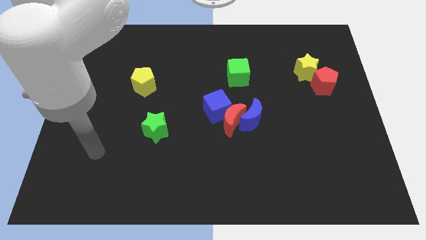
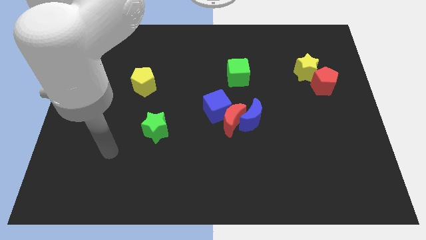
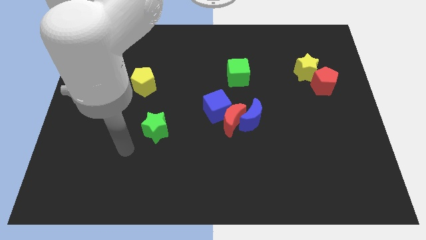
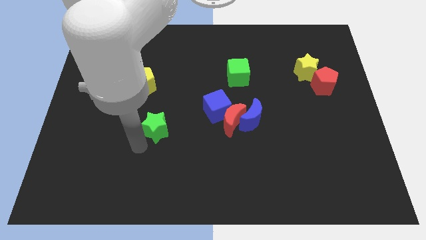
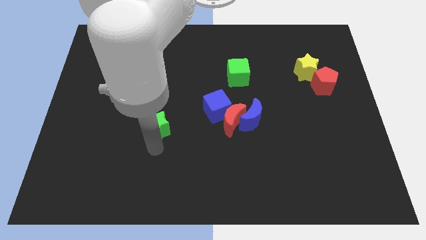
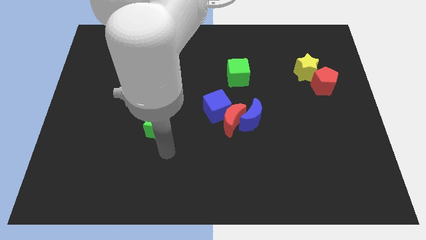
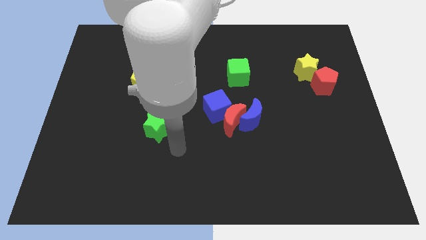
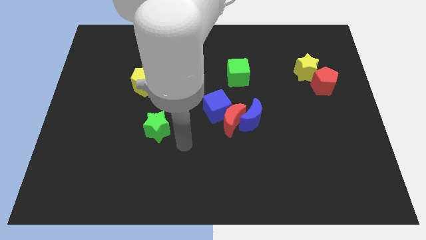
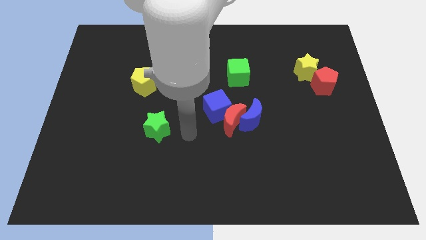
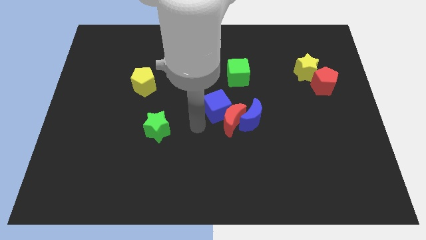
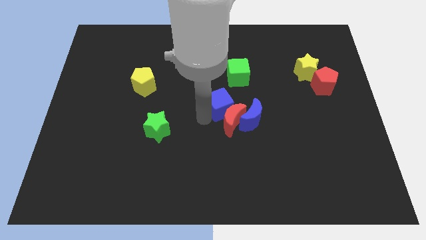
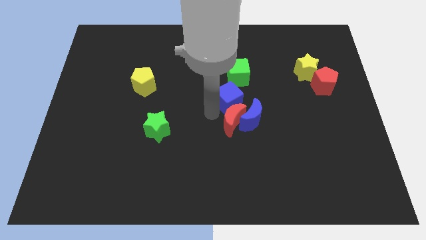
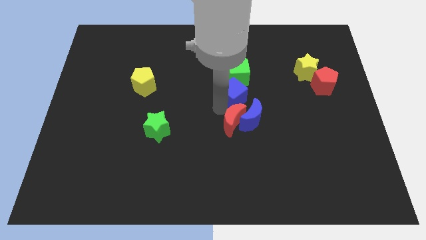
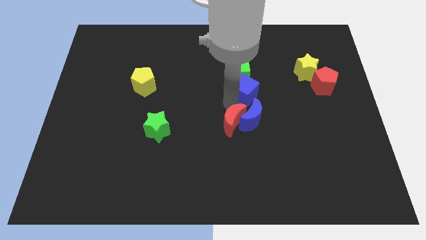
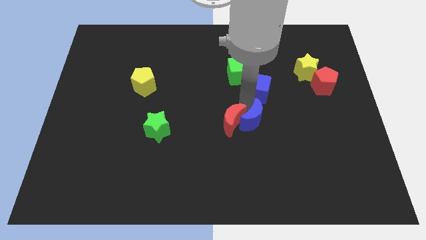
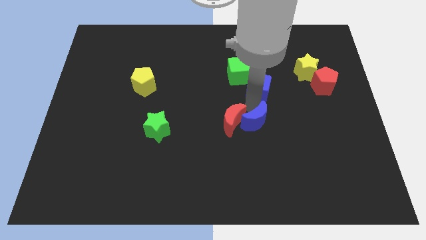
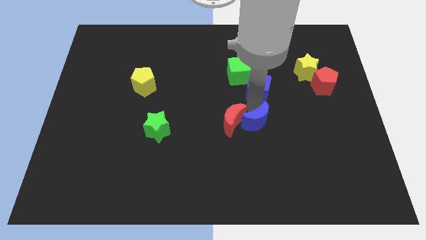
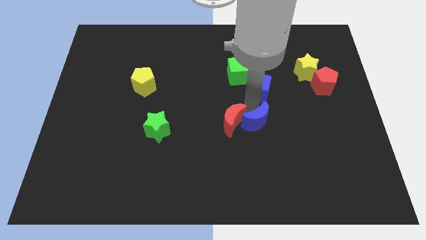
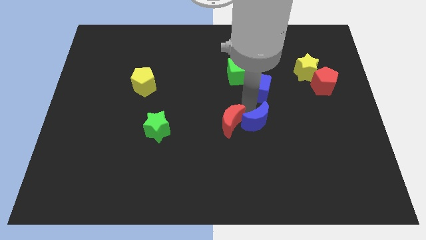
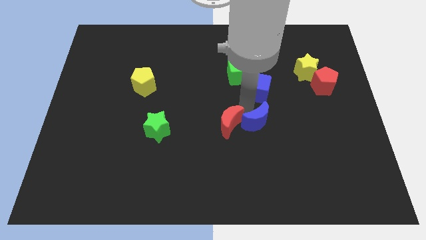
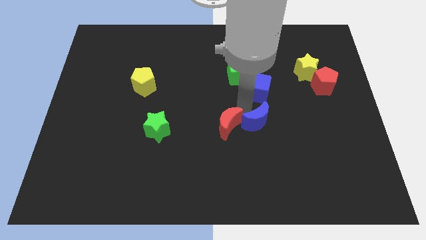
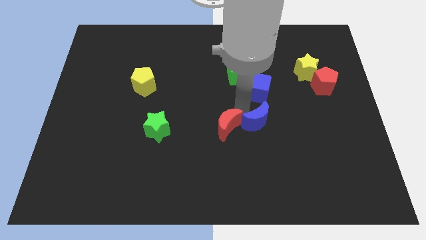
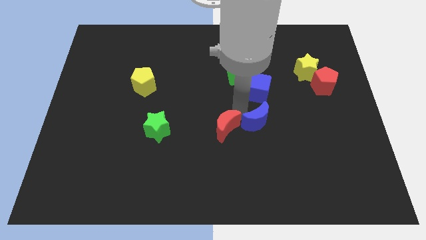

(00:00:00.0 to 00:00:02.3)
pull the red moon apart from the blue moon and blue cube

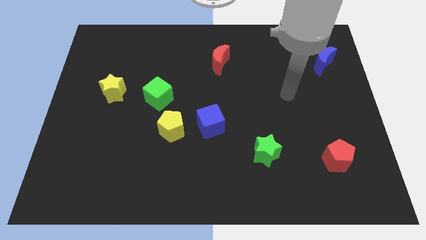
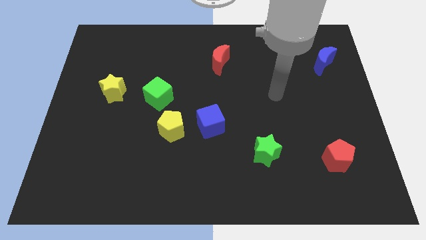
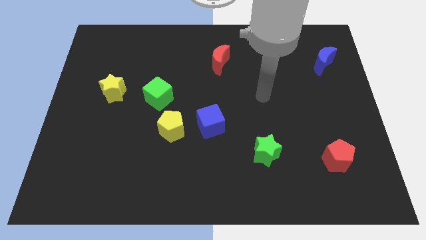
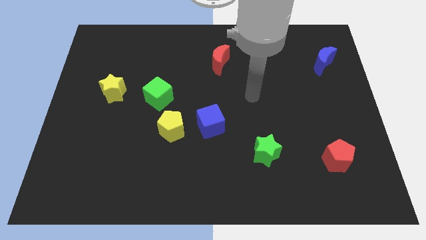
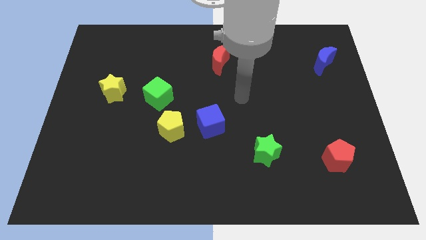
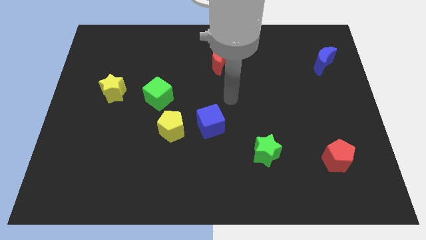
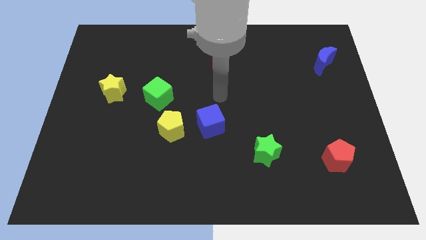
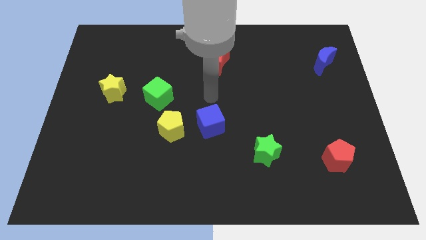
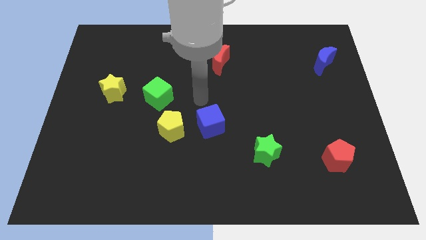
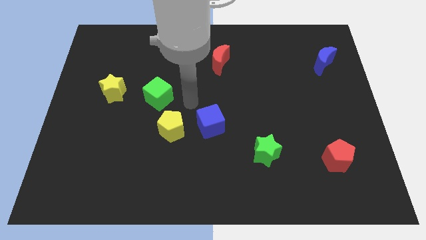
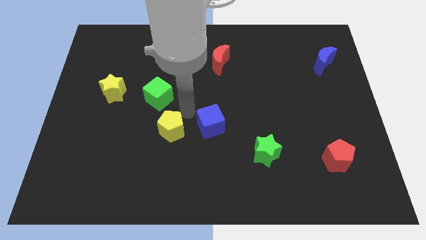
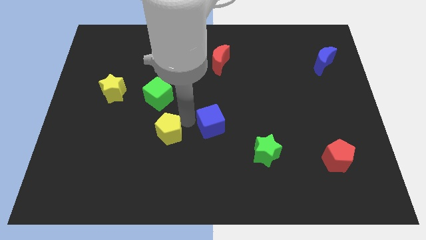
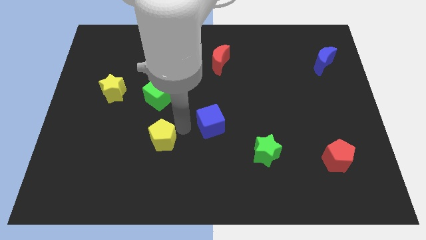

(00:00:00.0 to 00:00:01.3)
pull the blue cube apart from the yellow pentagon

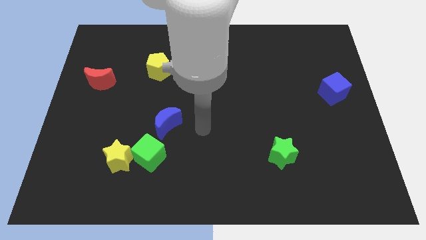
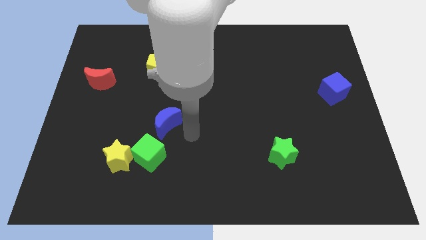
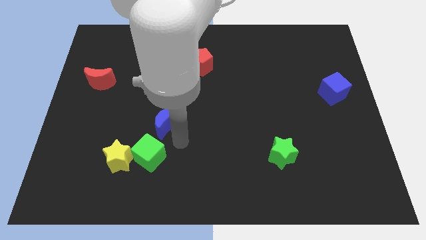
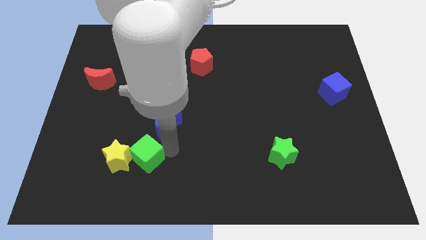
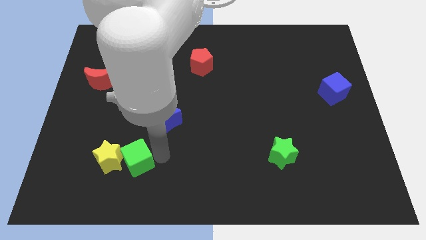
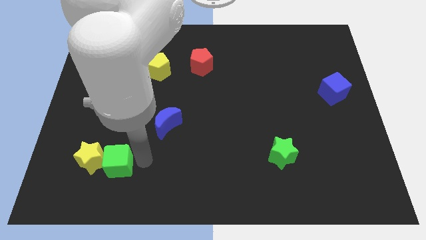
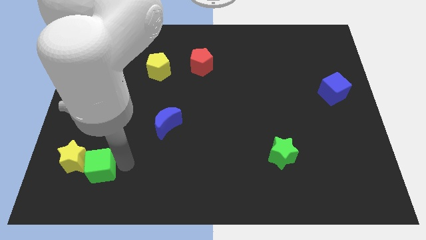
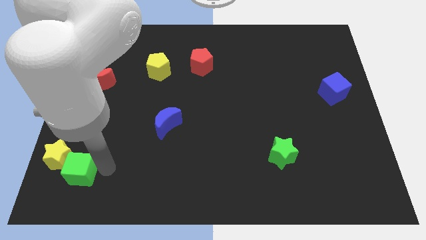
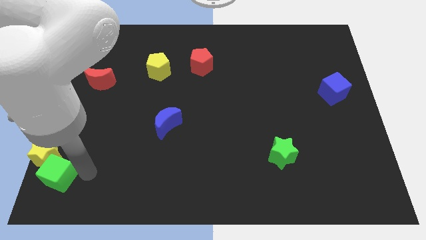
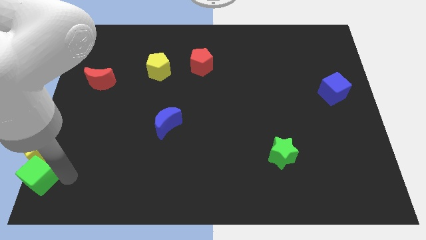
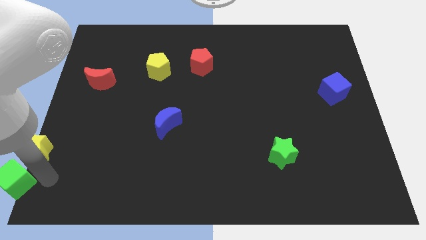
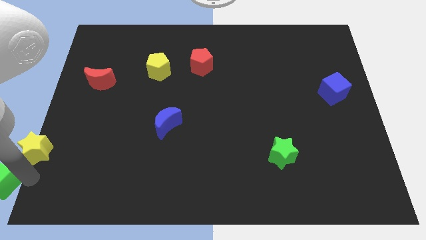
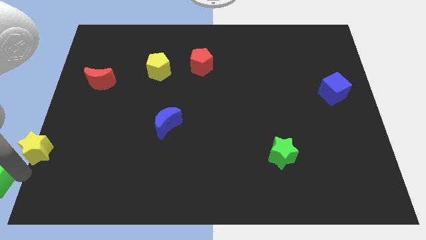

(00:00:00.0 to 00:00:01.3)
pull the yellow star apart from the green cube

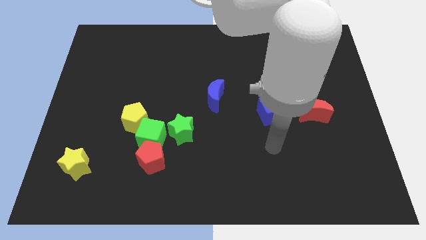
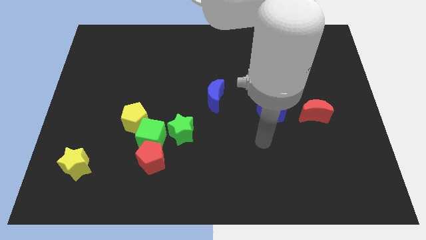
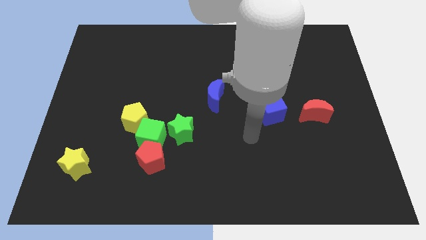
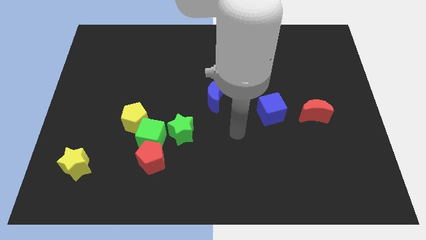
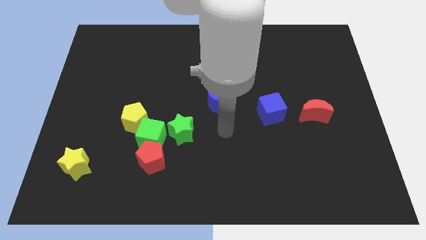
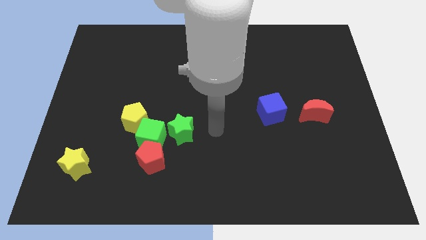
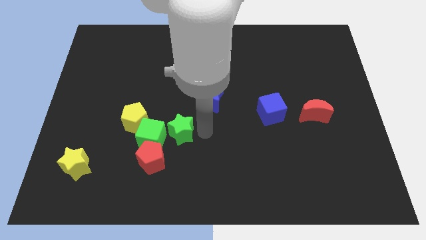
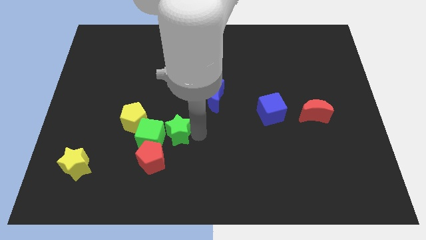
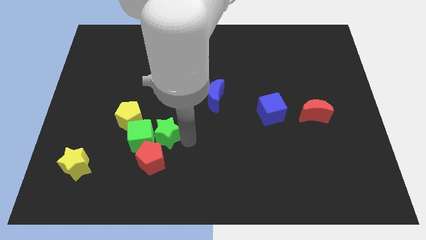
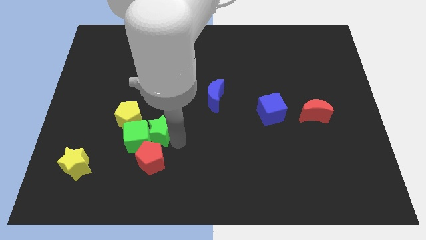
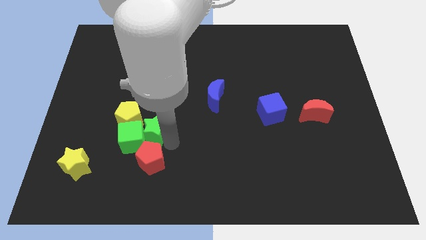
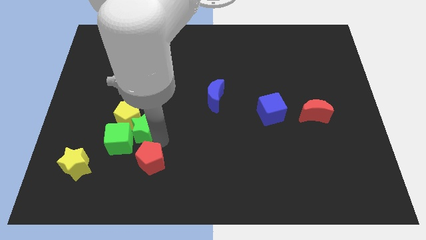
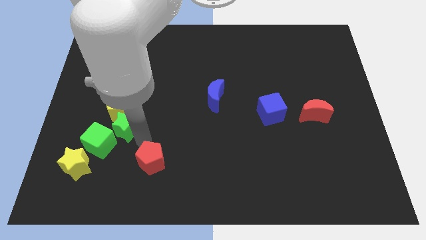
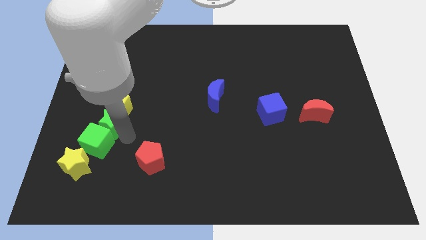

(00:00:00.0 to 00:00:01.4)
pull the yellow pentagon apart from the green cube

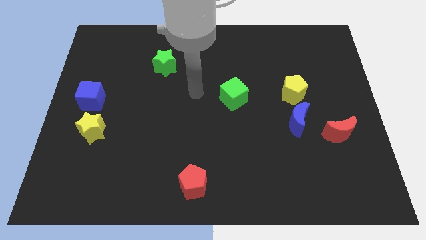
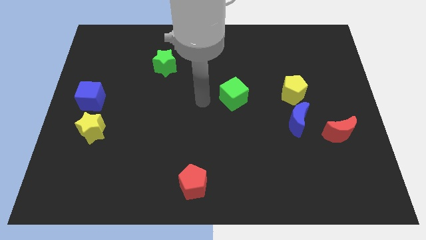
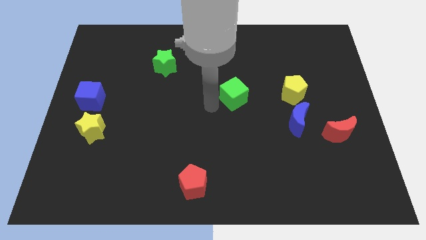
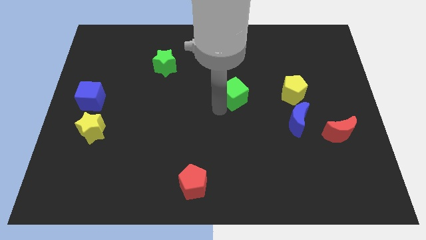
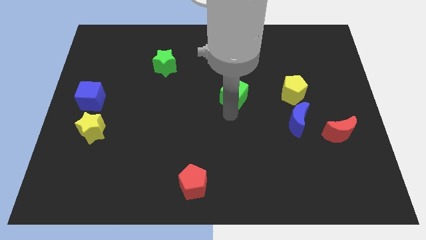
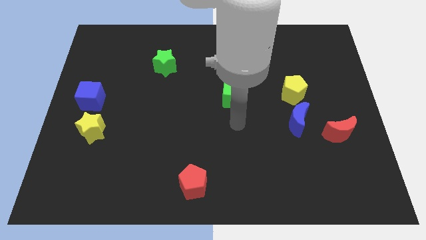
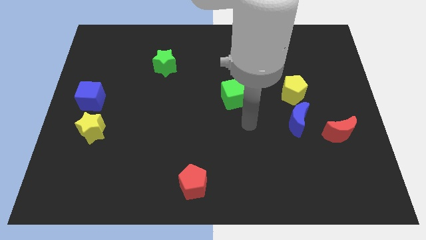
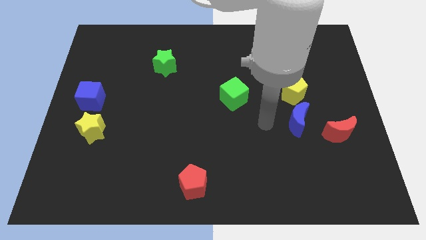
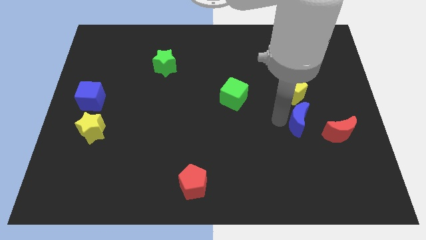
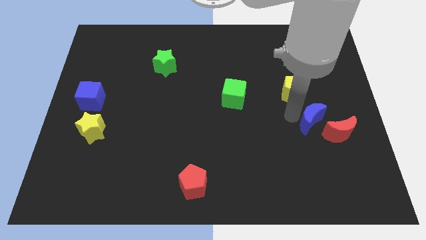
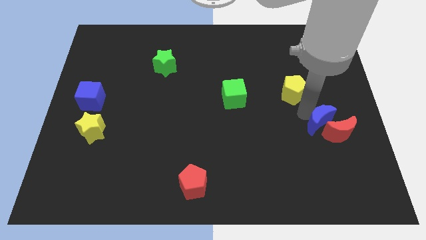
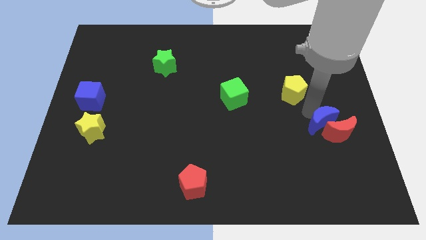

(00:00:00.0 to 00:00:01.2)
separate the yellow pentagon from the blue moon

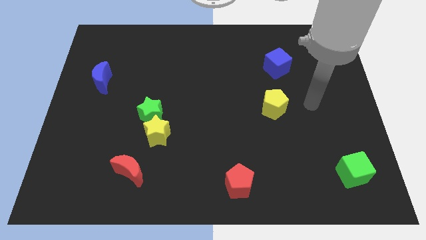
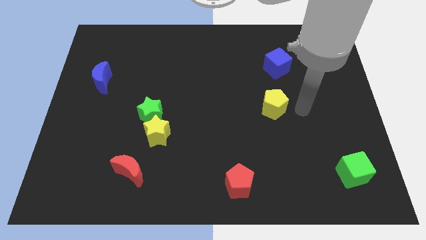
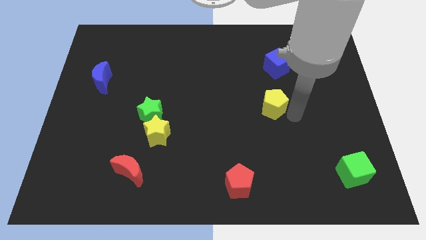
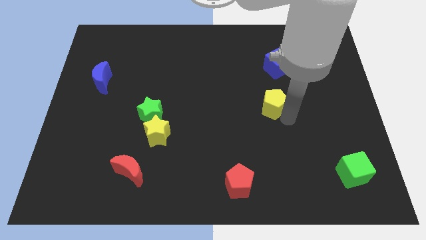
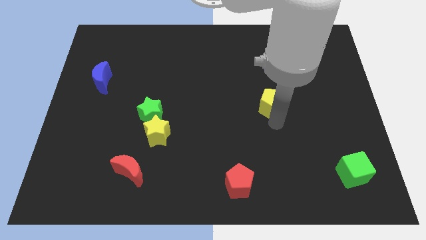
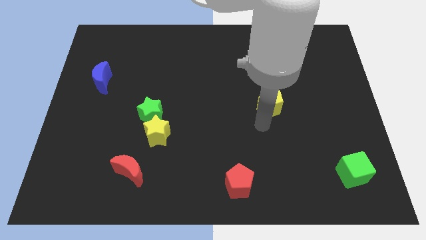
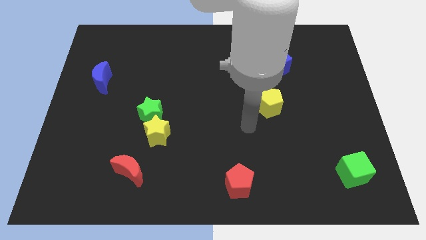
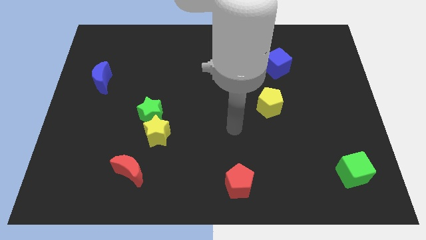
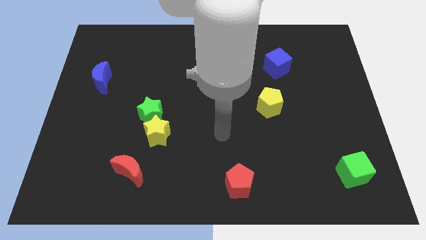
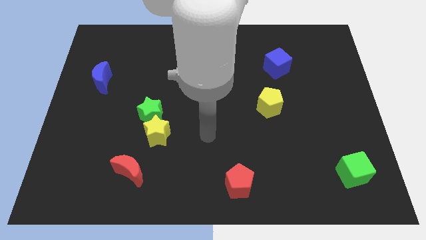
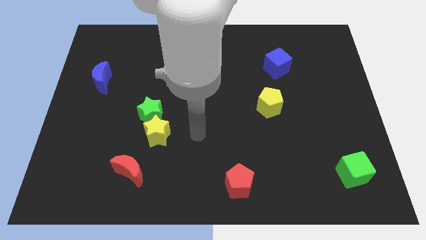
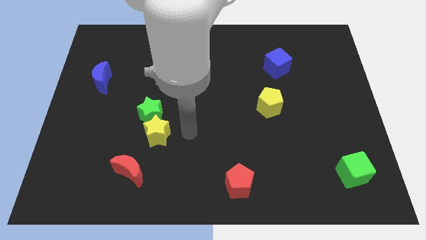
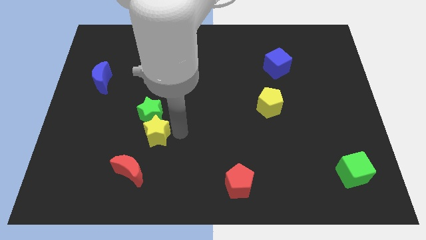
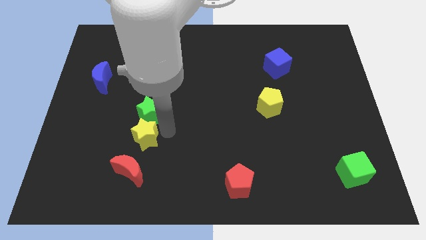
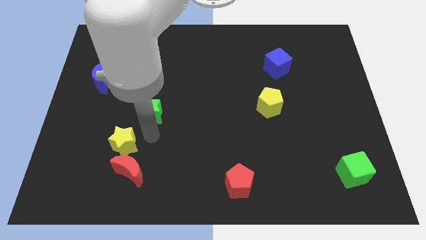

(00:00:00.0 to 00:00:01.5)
separate the green star from the yellow star

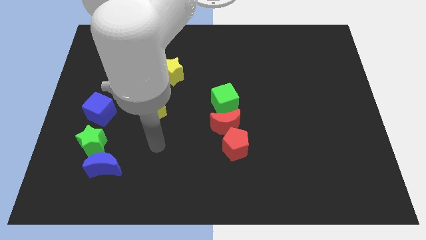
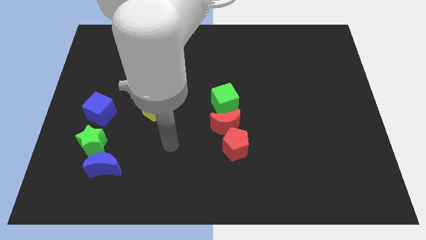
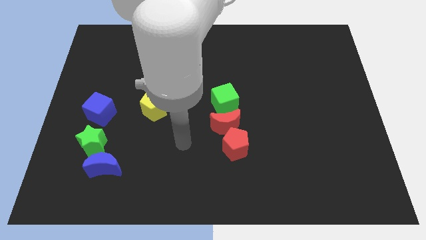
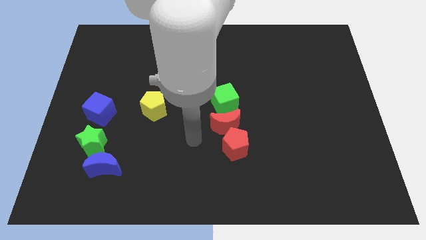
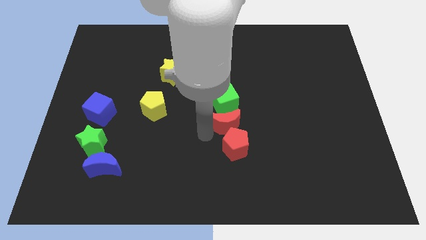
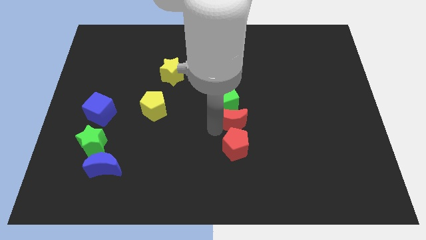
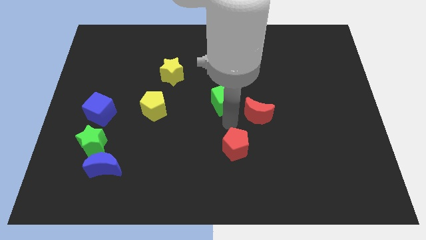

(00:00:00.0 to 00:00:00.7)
move the red pentagon away from the red moon
